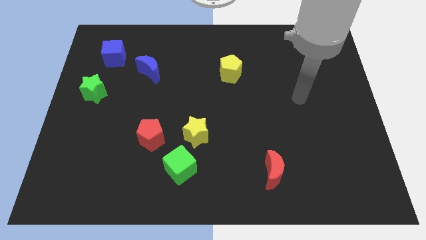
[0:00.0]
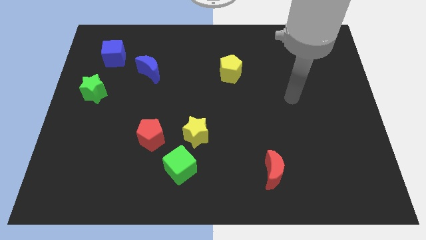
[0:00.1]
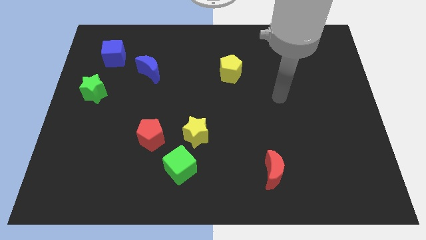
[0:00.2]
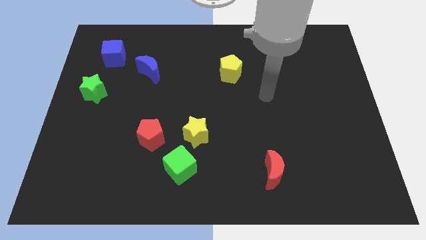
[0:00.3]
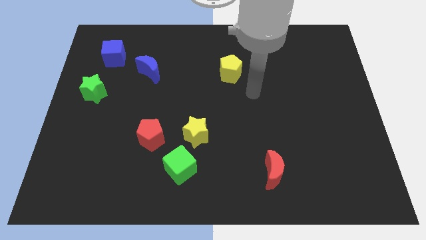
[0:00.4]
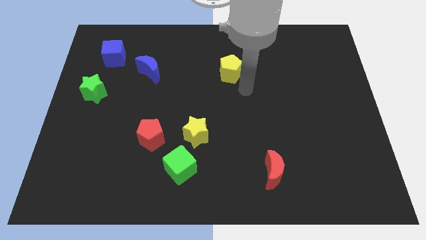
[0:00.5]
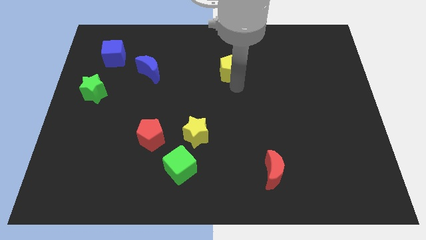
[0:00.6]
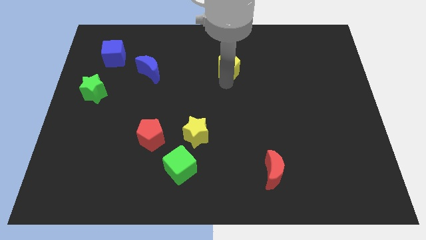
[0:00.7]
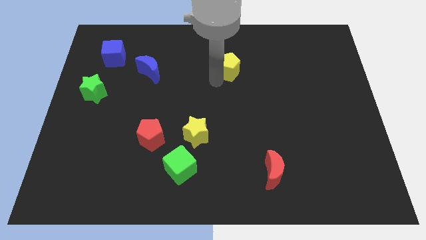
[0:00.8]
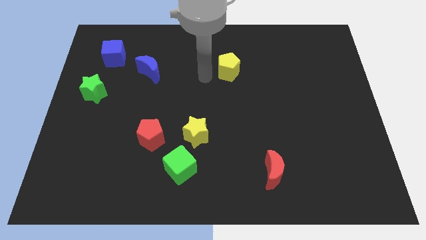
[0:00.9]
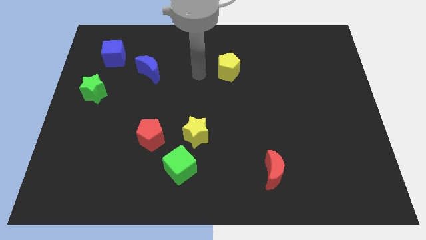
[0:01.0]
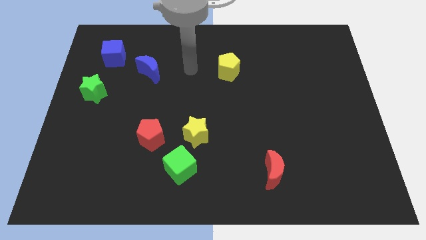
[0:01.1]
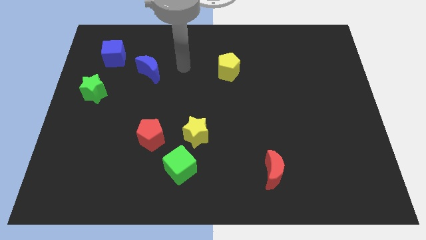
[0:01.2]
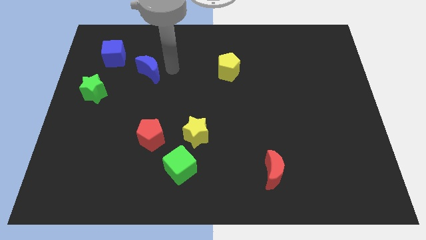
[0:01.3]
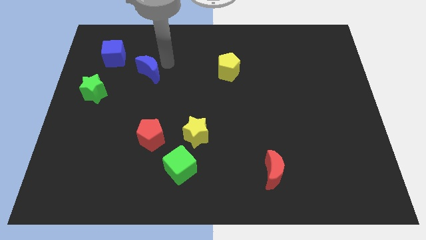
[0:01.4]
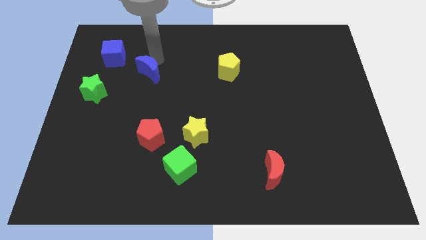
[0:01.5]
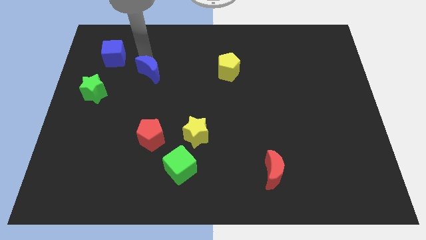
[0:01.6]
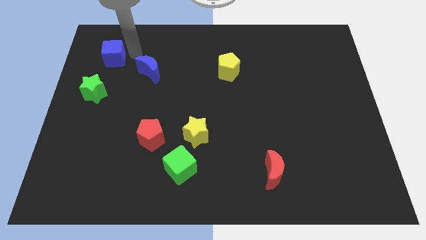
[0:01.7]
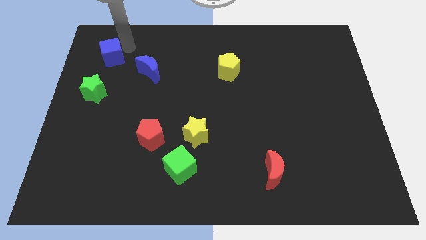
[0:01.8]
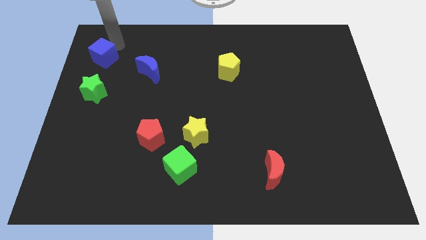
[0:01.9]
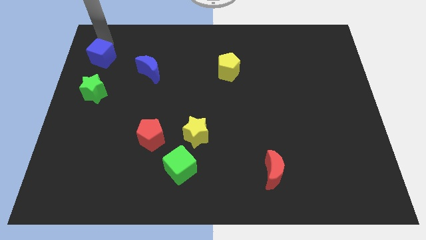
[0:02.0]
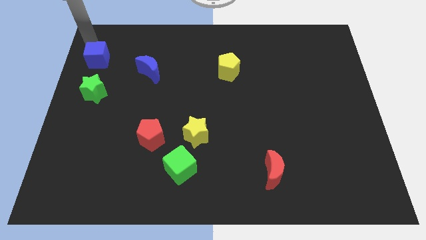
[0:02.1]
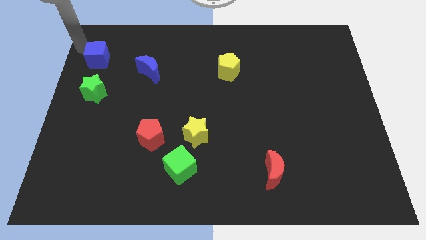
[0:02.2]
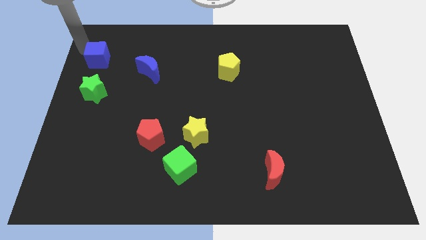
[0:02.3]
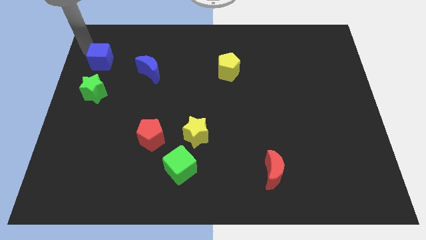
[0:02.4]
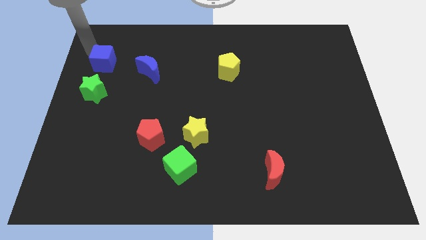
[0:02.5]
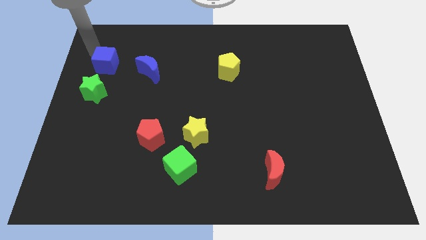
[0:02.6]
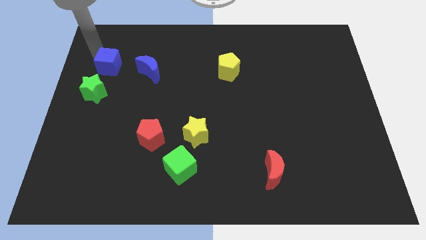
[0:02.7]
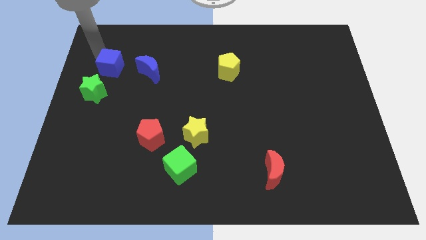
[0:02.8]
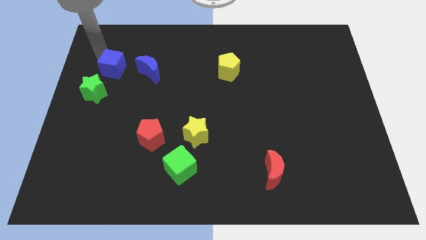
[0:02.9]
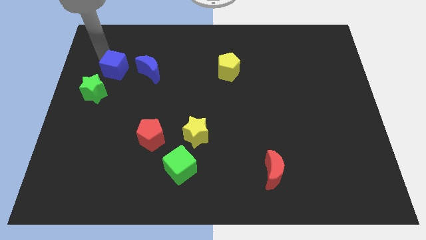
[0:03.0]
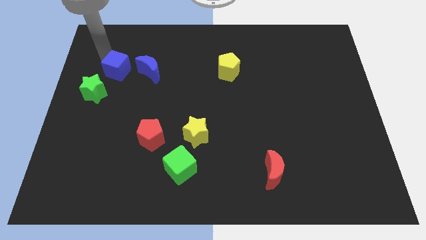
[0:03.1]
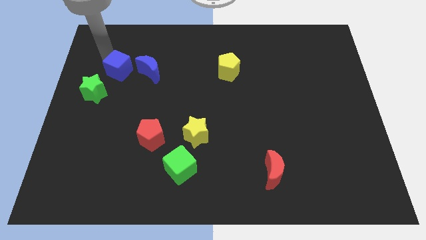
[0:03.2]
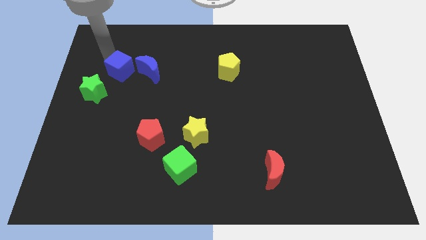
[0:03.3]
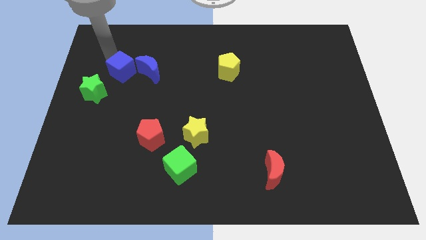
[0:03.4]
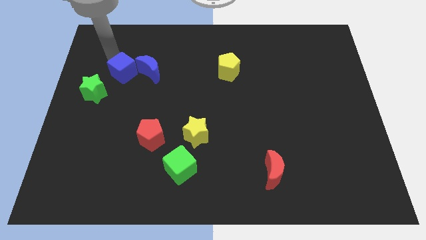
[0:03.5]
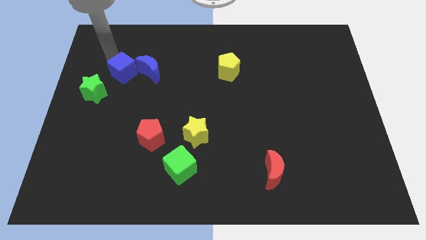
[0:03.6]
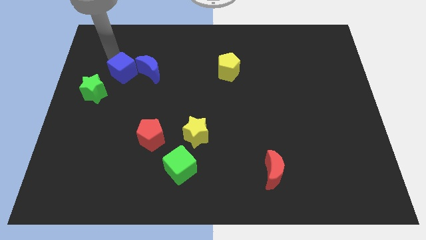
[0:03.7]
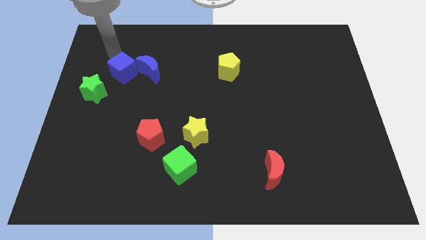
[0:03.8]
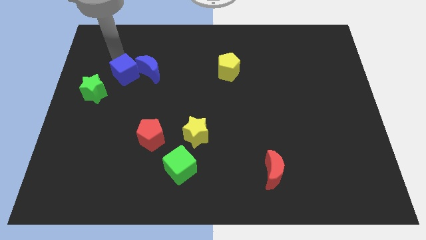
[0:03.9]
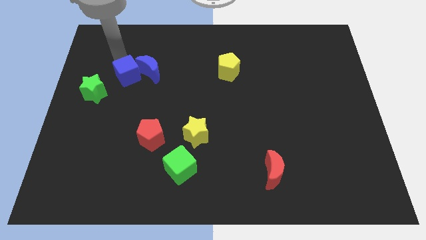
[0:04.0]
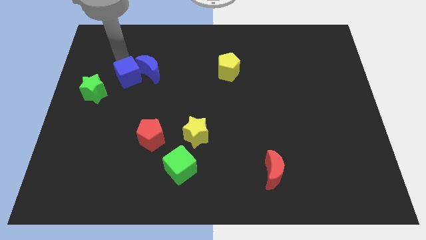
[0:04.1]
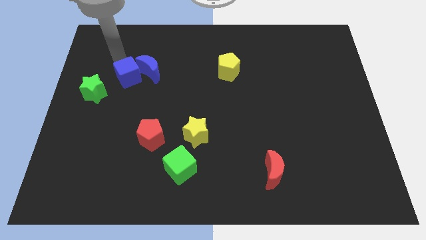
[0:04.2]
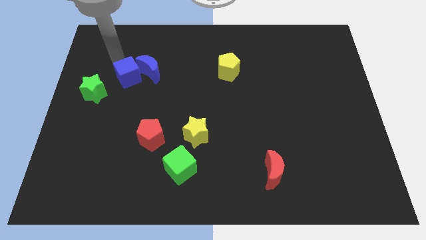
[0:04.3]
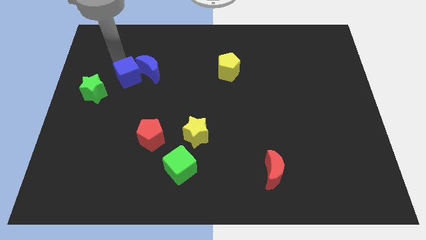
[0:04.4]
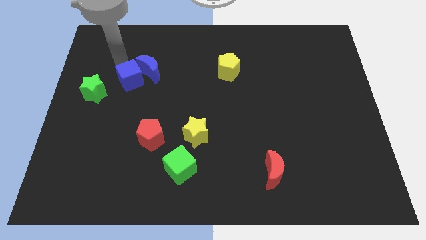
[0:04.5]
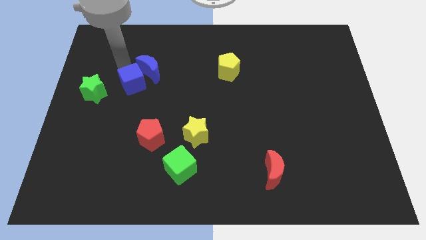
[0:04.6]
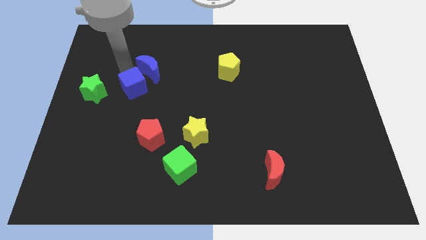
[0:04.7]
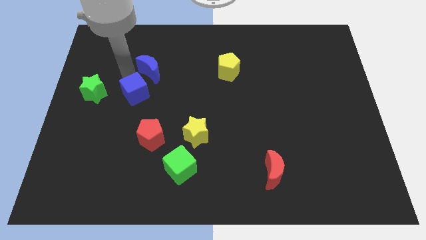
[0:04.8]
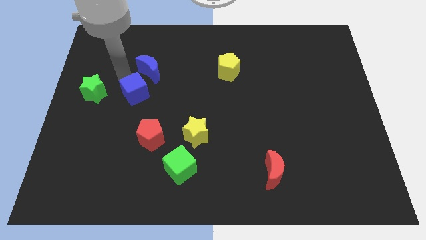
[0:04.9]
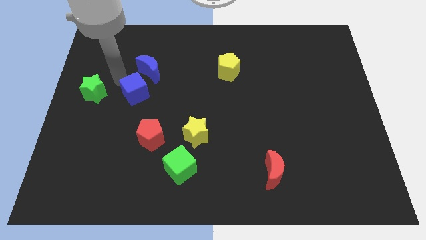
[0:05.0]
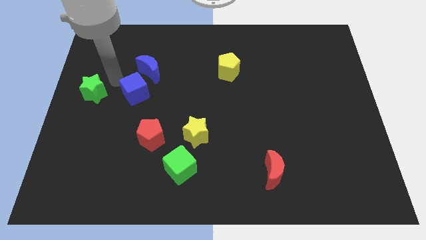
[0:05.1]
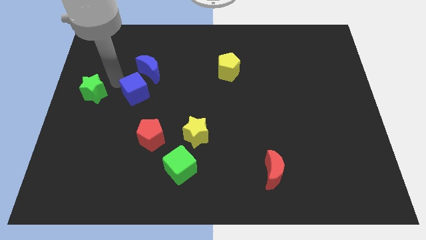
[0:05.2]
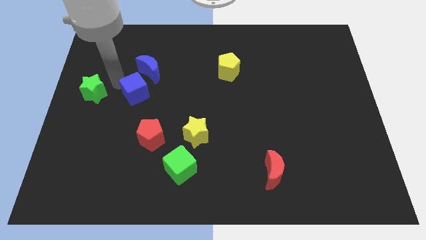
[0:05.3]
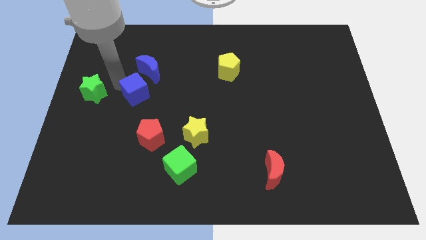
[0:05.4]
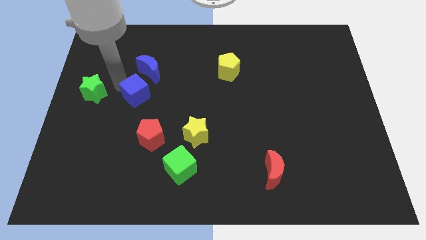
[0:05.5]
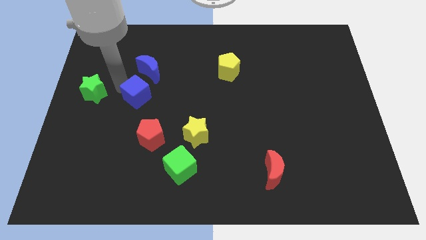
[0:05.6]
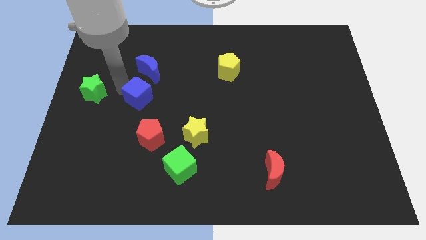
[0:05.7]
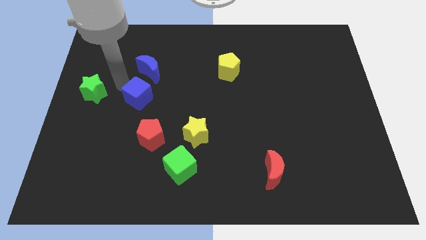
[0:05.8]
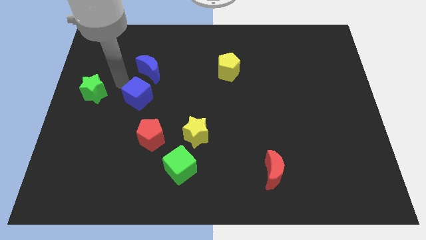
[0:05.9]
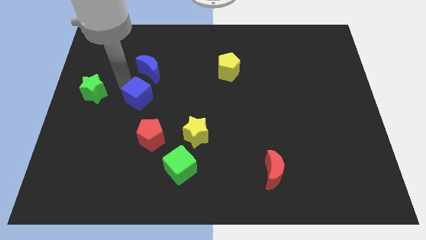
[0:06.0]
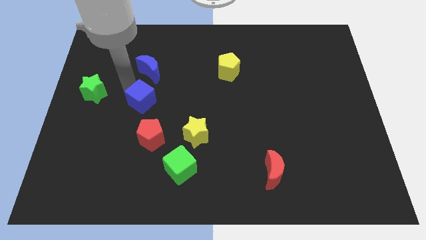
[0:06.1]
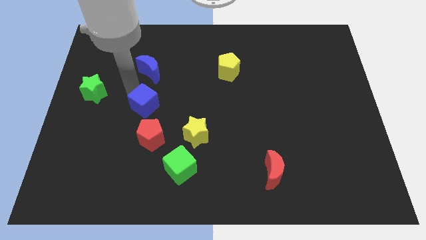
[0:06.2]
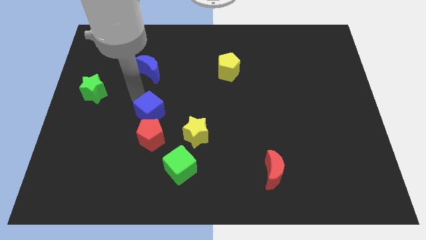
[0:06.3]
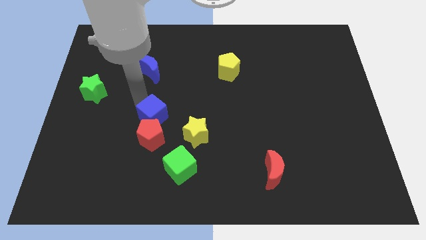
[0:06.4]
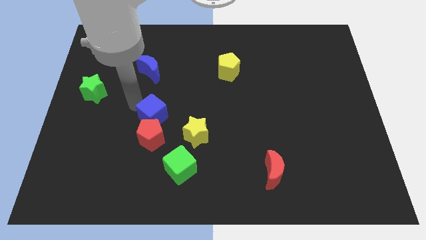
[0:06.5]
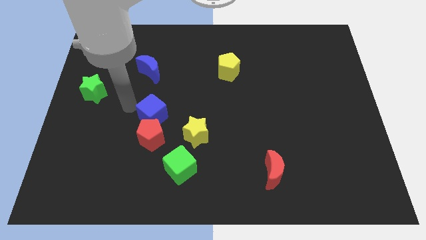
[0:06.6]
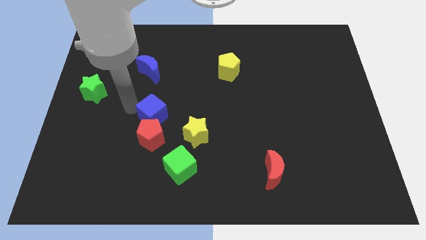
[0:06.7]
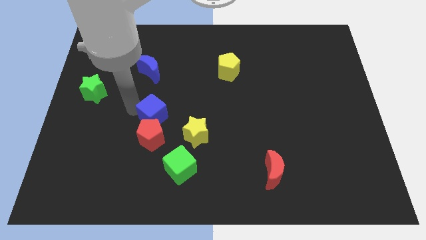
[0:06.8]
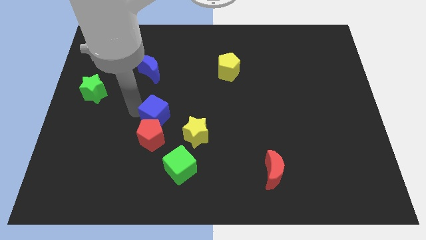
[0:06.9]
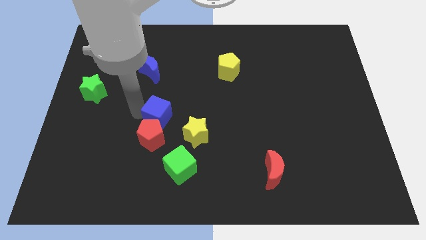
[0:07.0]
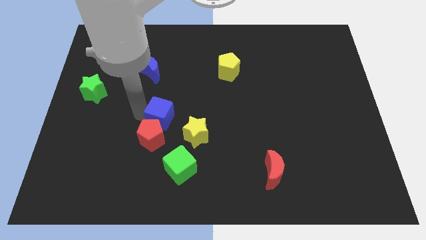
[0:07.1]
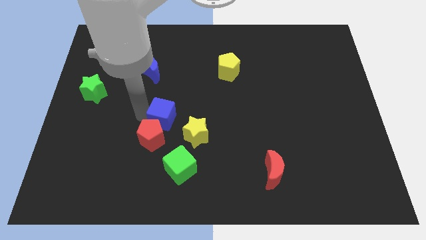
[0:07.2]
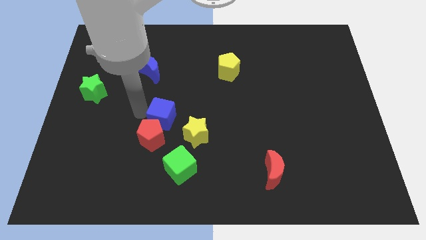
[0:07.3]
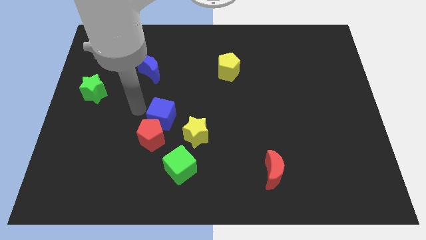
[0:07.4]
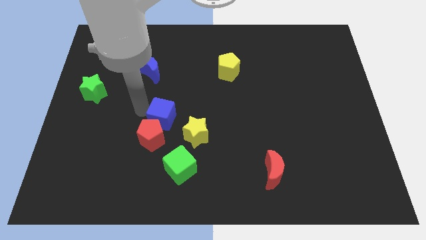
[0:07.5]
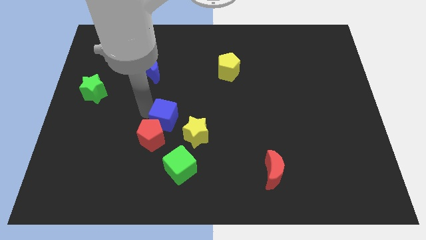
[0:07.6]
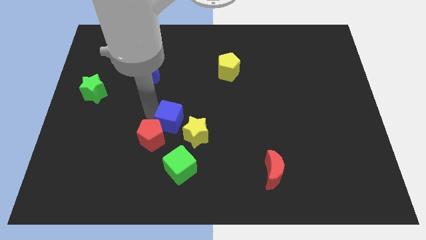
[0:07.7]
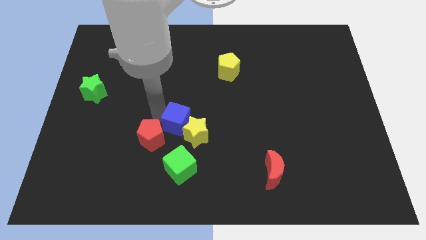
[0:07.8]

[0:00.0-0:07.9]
slide the blue cube next to the yellow star

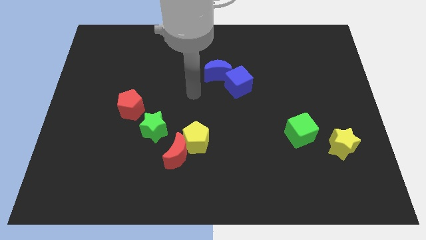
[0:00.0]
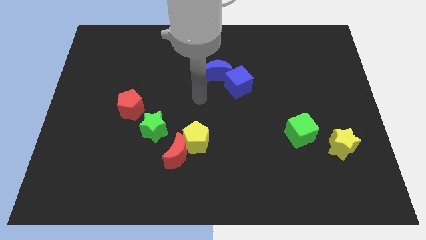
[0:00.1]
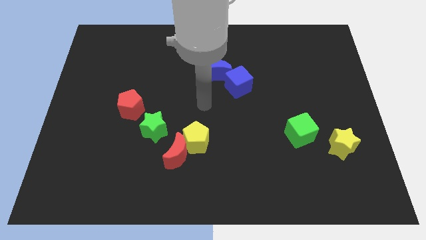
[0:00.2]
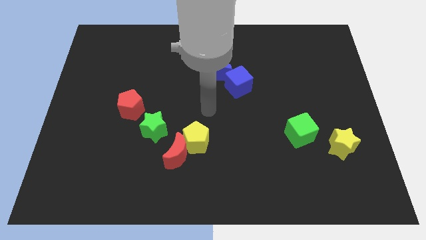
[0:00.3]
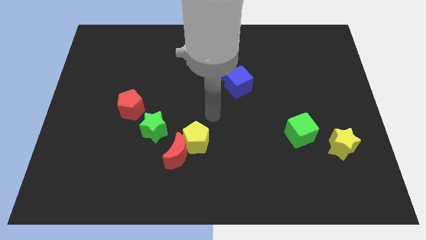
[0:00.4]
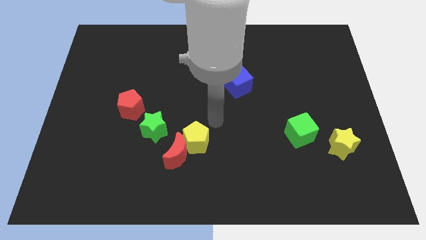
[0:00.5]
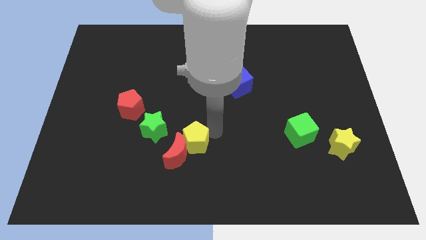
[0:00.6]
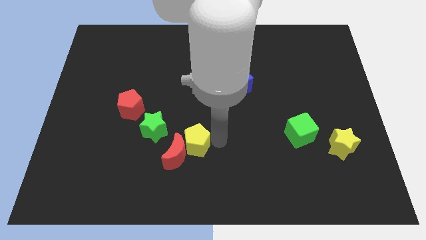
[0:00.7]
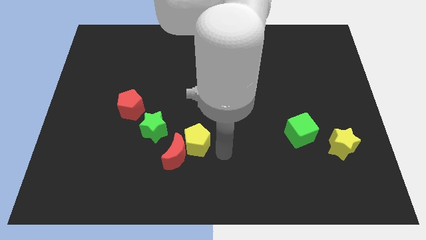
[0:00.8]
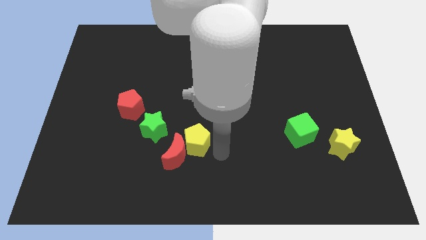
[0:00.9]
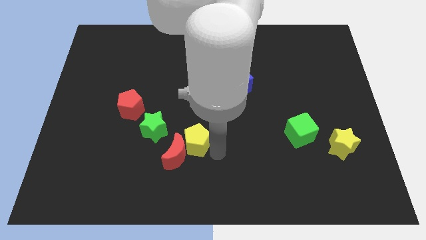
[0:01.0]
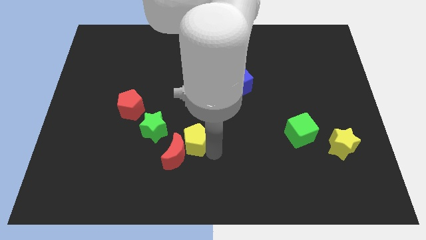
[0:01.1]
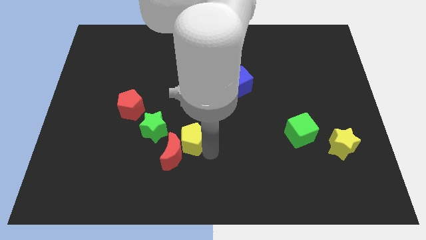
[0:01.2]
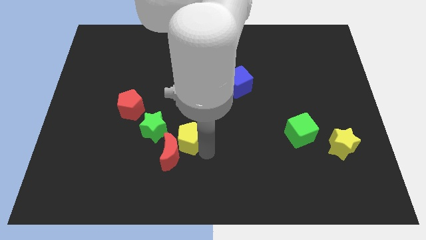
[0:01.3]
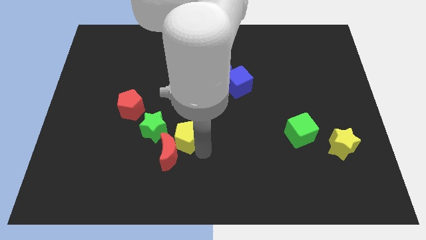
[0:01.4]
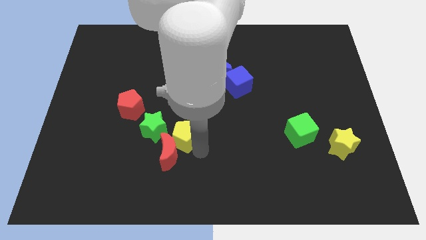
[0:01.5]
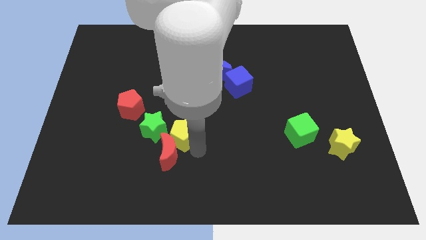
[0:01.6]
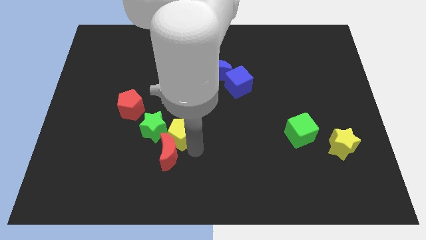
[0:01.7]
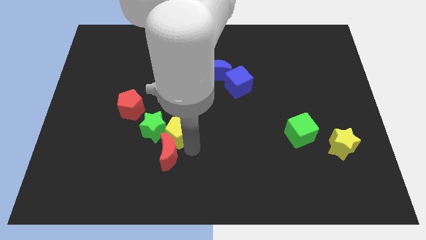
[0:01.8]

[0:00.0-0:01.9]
push the yellow pentagon towards the green star
